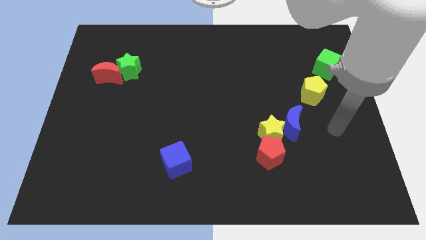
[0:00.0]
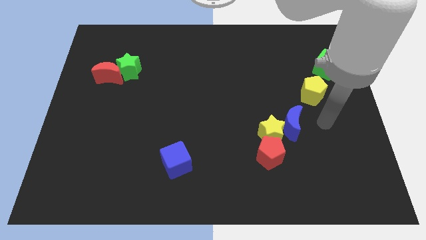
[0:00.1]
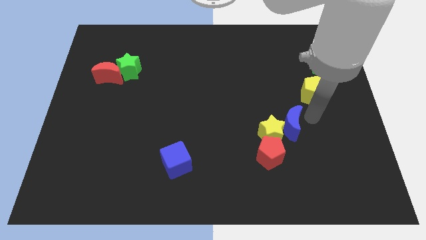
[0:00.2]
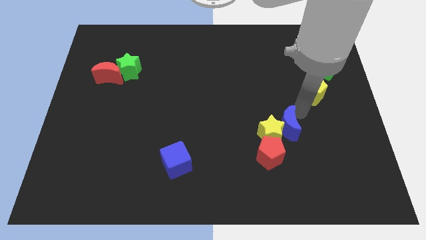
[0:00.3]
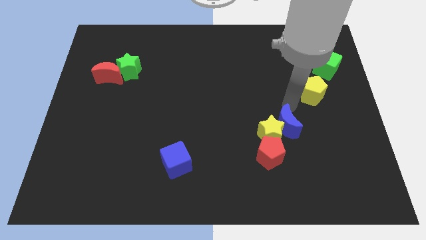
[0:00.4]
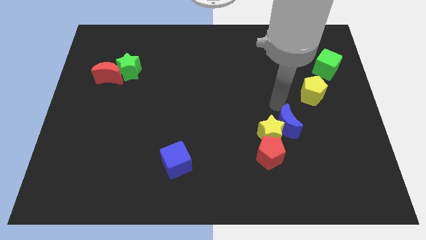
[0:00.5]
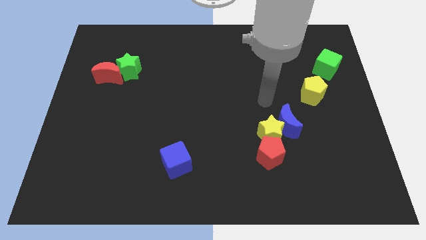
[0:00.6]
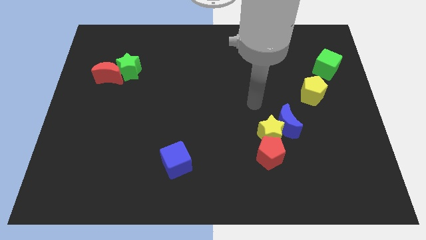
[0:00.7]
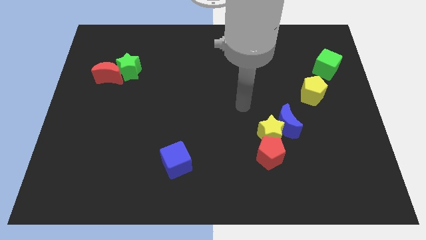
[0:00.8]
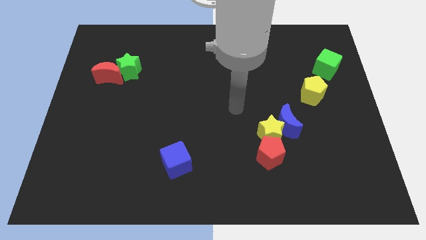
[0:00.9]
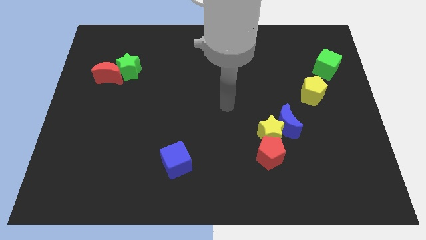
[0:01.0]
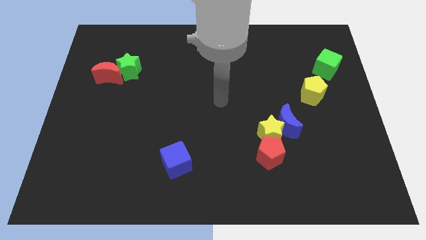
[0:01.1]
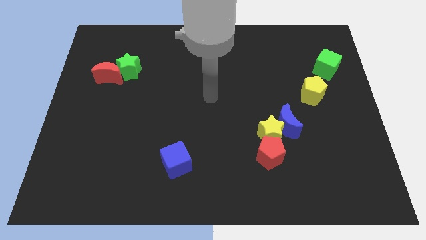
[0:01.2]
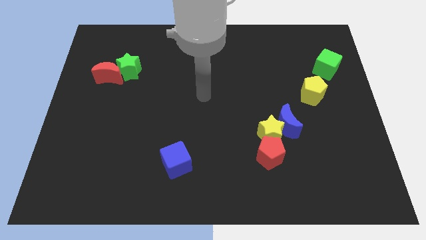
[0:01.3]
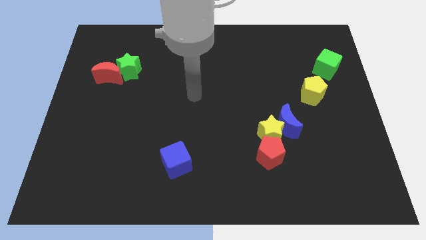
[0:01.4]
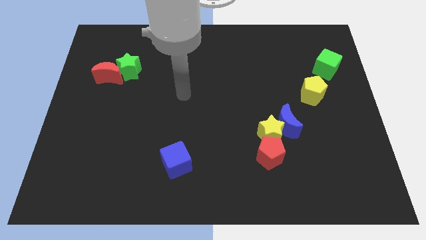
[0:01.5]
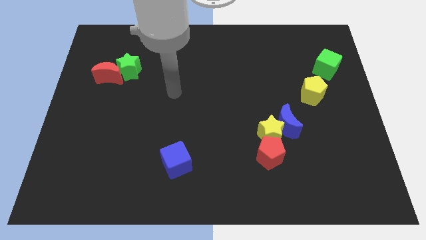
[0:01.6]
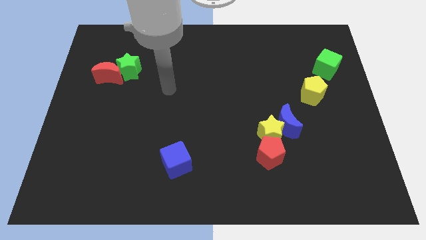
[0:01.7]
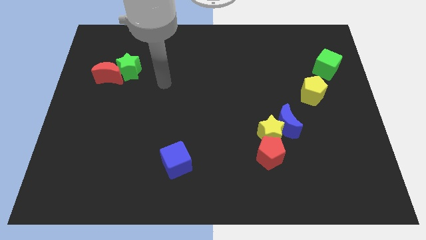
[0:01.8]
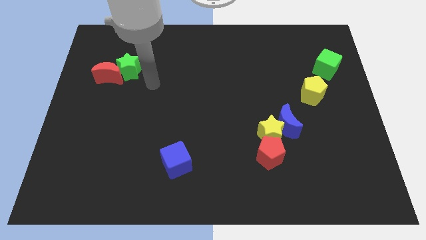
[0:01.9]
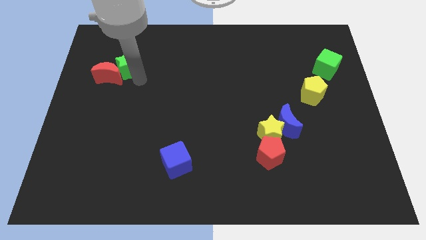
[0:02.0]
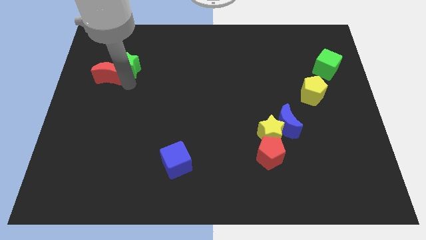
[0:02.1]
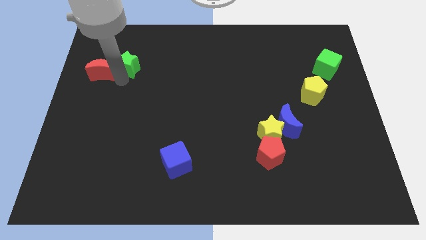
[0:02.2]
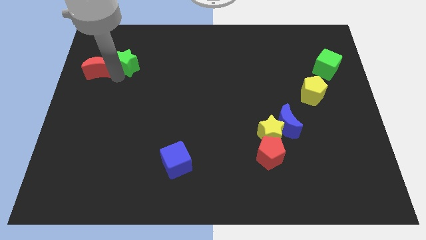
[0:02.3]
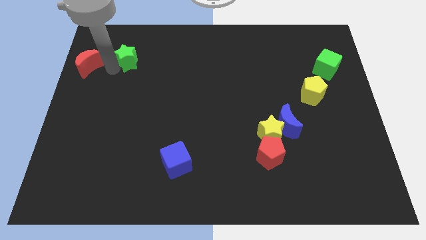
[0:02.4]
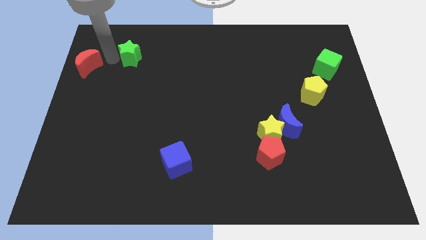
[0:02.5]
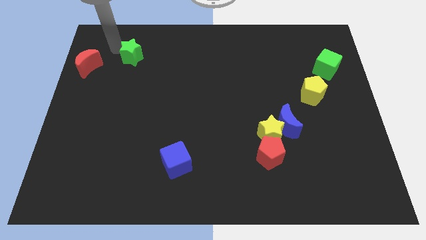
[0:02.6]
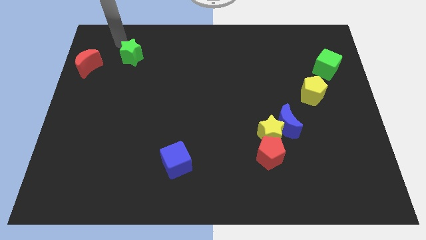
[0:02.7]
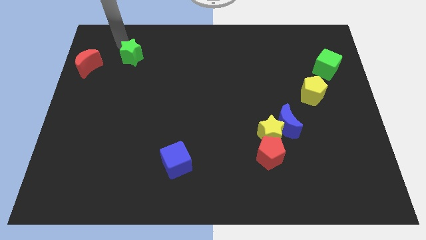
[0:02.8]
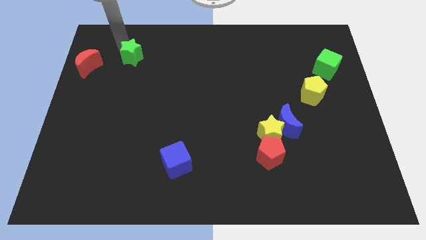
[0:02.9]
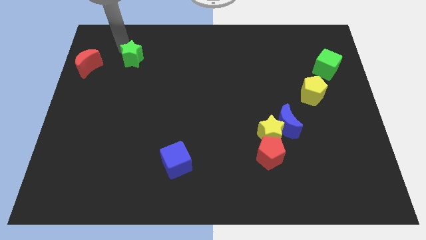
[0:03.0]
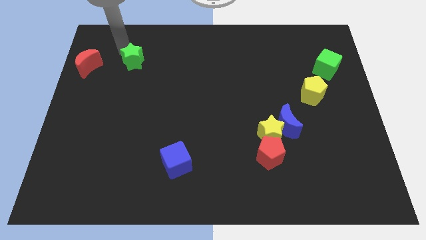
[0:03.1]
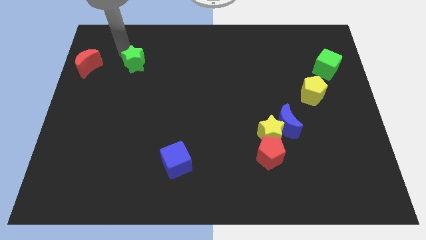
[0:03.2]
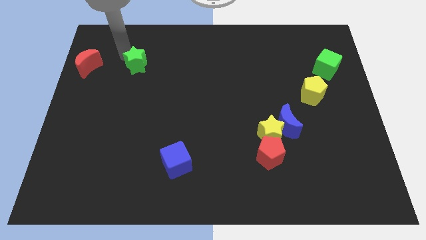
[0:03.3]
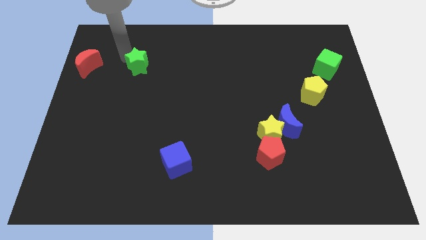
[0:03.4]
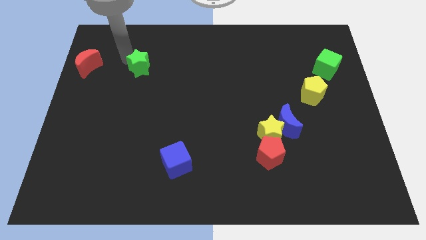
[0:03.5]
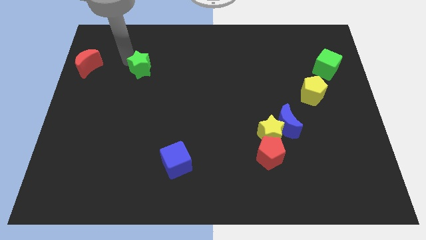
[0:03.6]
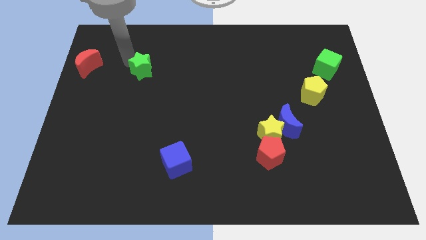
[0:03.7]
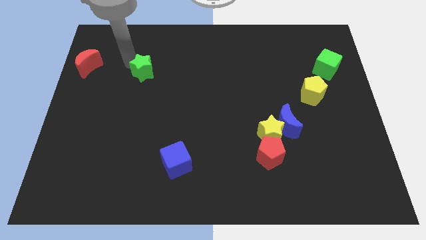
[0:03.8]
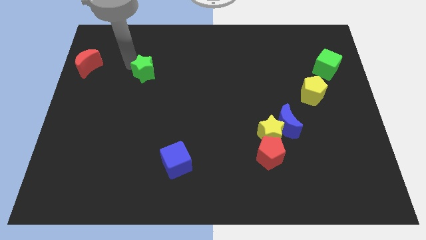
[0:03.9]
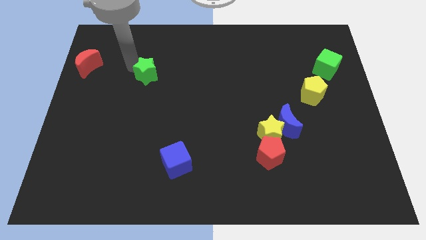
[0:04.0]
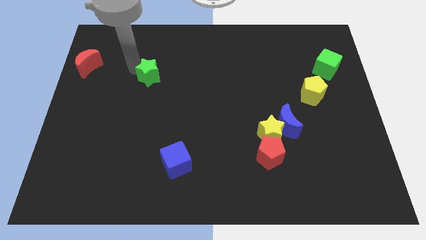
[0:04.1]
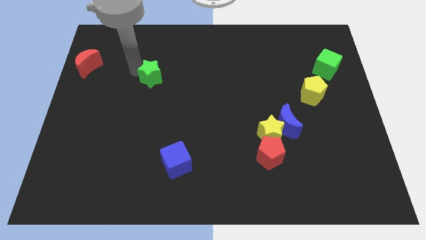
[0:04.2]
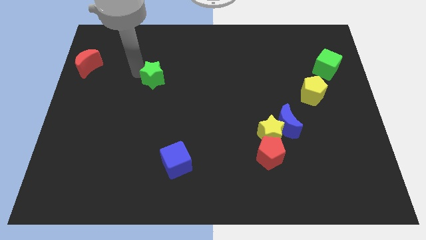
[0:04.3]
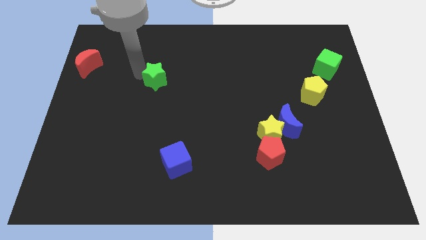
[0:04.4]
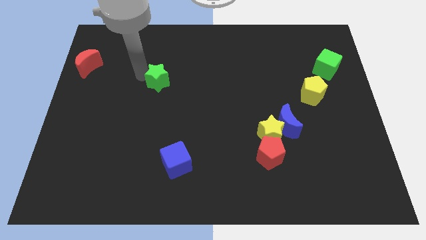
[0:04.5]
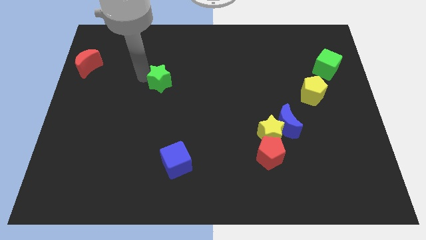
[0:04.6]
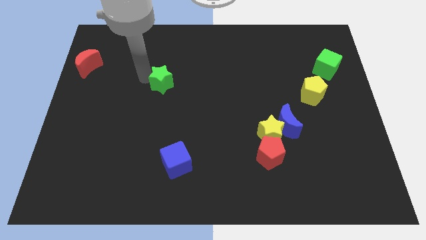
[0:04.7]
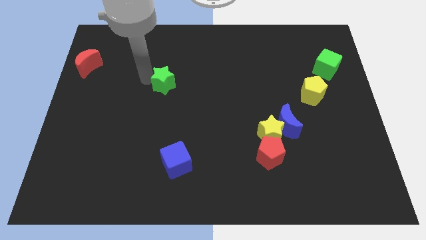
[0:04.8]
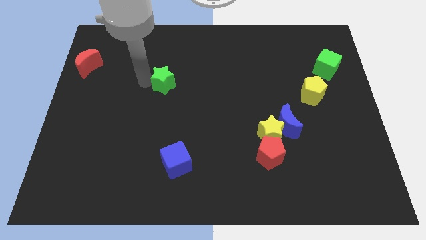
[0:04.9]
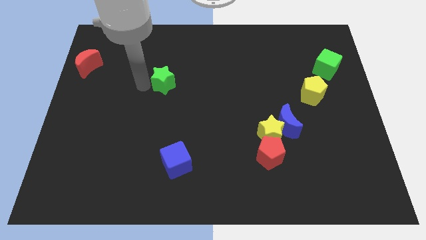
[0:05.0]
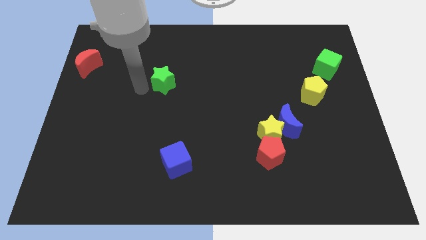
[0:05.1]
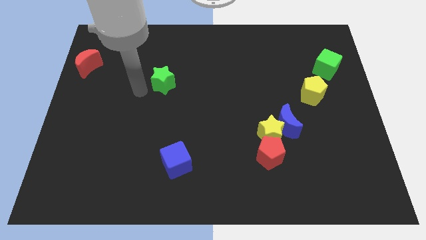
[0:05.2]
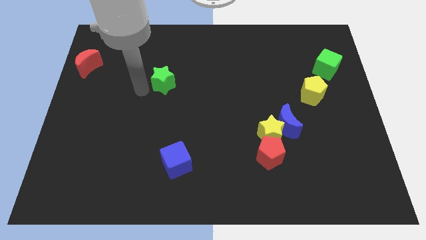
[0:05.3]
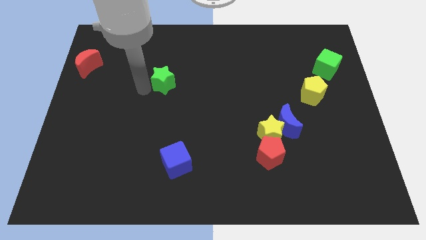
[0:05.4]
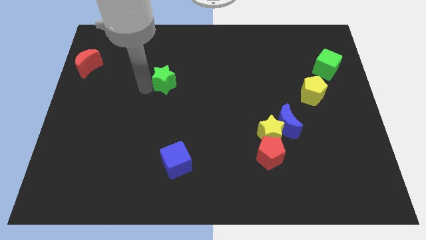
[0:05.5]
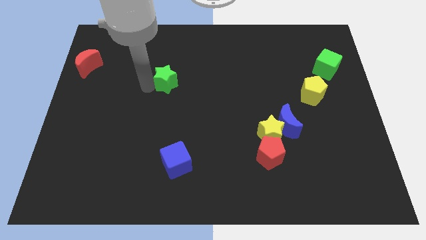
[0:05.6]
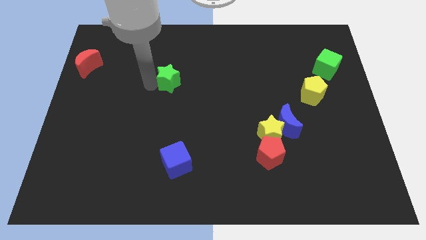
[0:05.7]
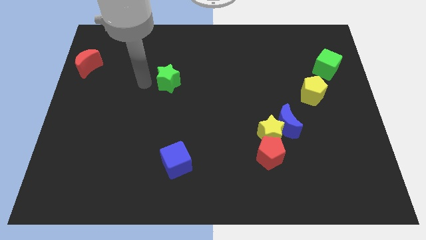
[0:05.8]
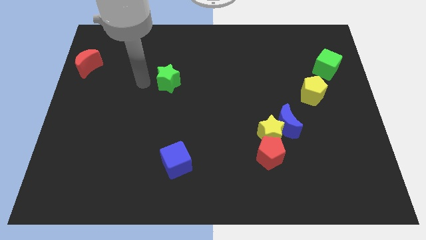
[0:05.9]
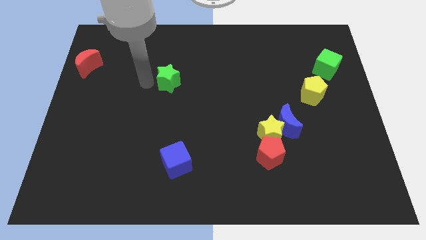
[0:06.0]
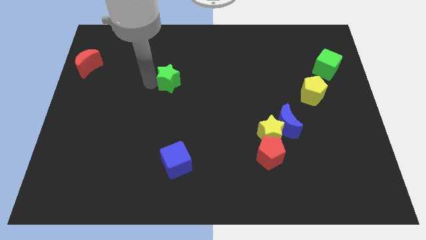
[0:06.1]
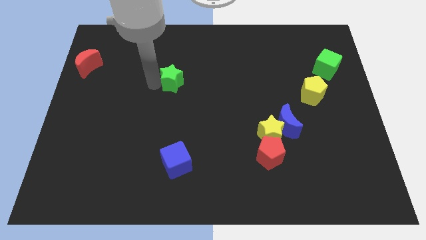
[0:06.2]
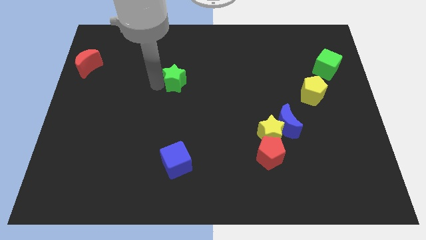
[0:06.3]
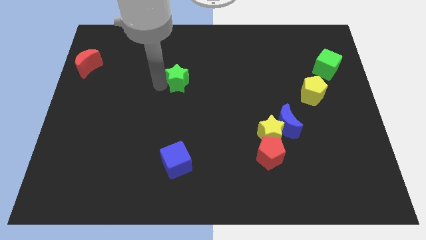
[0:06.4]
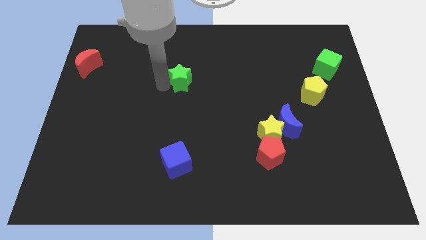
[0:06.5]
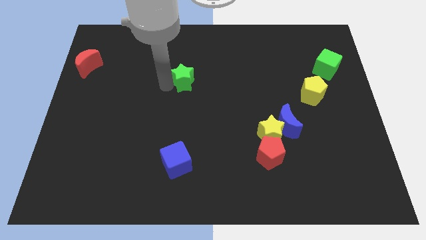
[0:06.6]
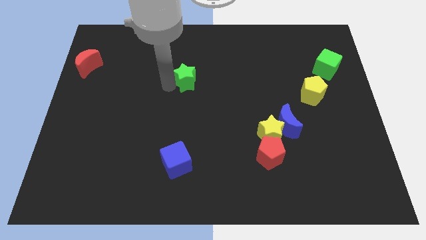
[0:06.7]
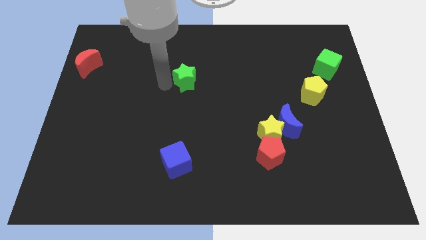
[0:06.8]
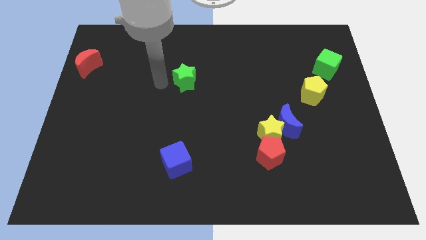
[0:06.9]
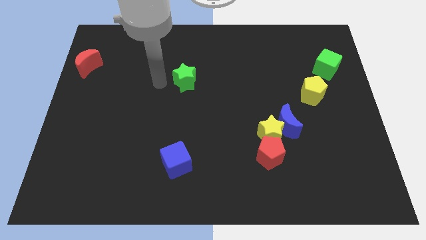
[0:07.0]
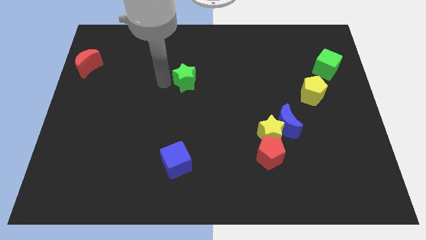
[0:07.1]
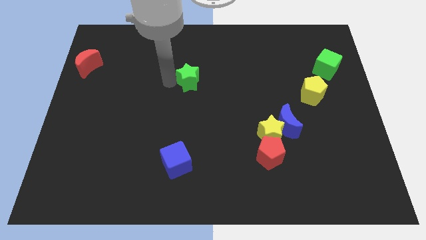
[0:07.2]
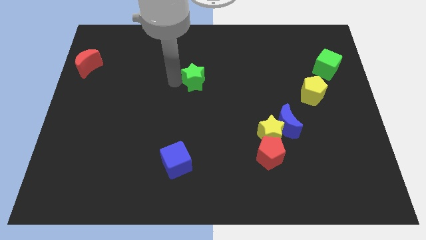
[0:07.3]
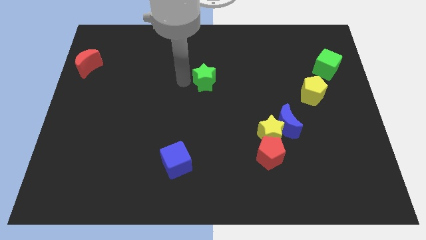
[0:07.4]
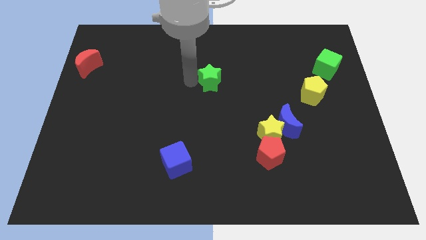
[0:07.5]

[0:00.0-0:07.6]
move the green star right
